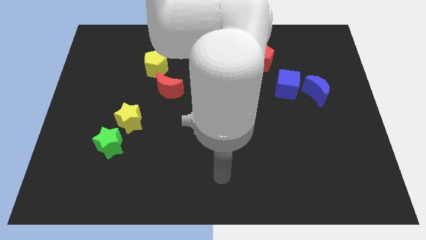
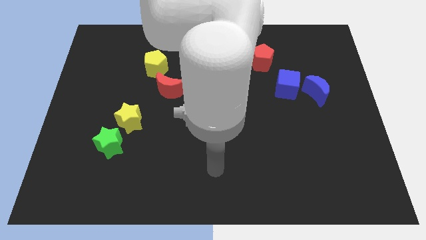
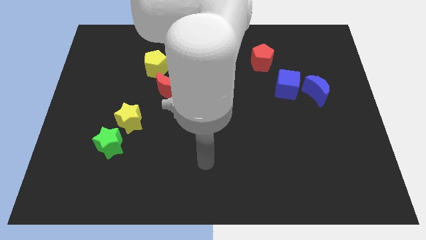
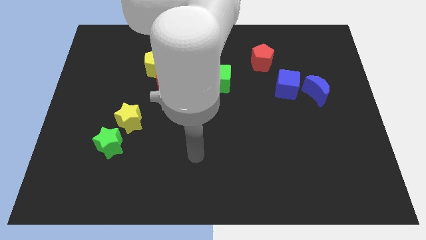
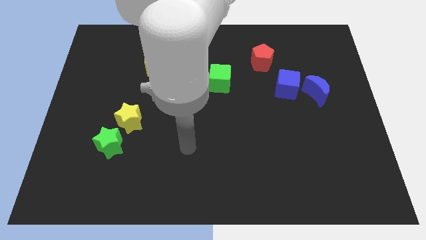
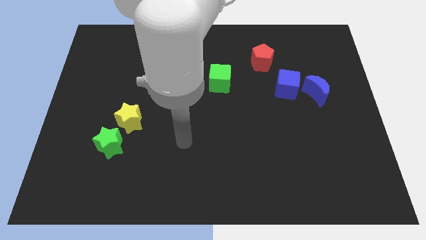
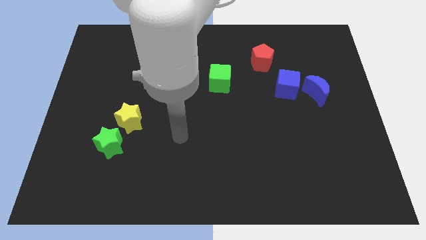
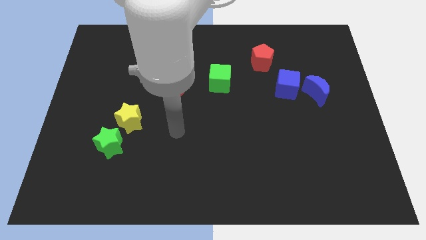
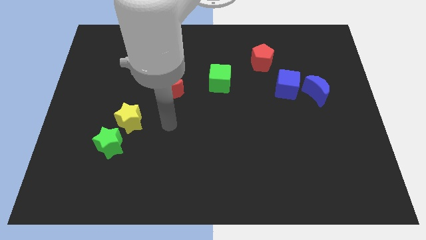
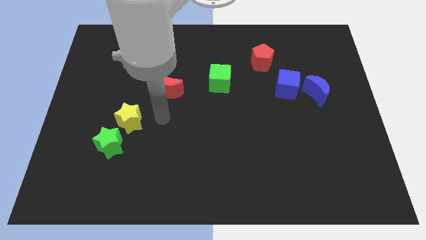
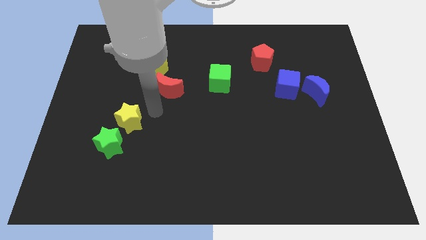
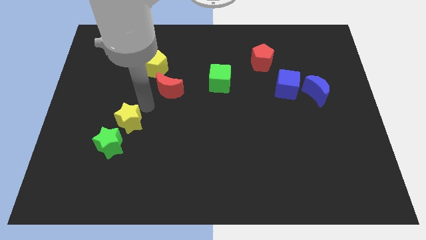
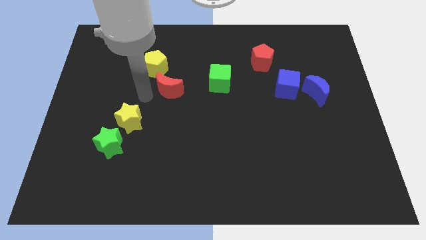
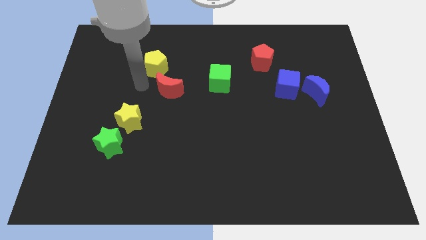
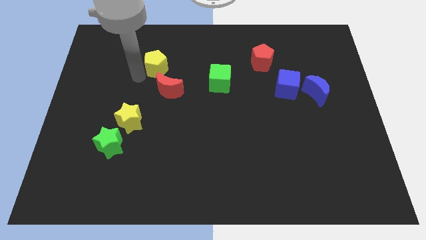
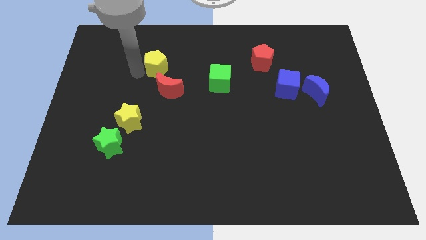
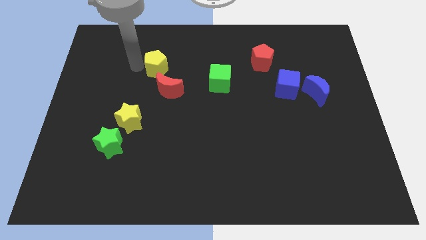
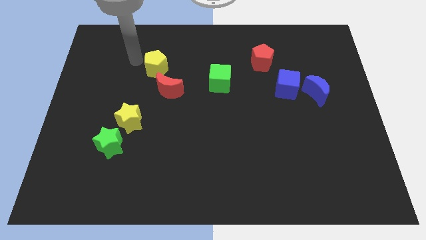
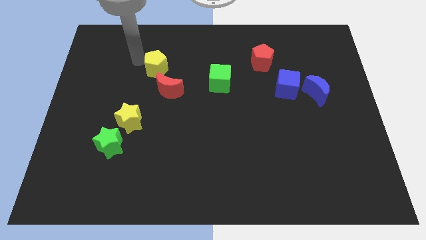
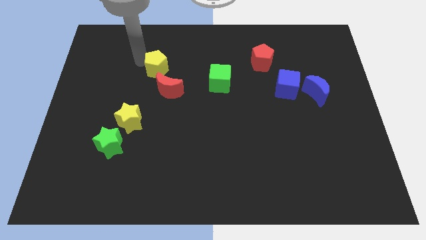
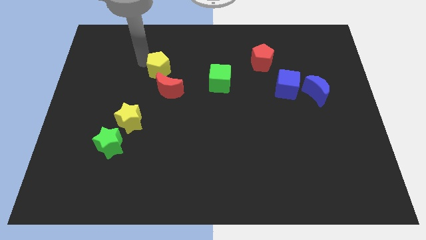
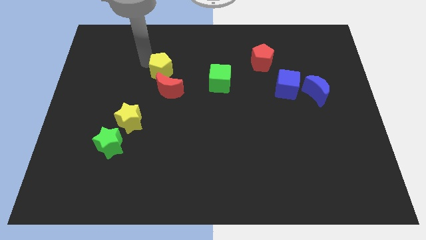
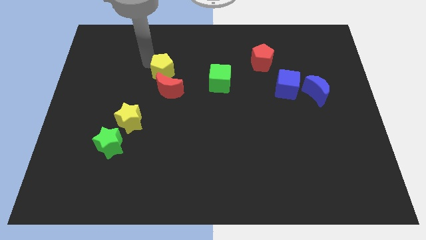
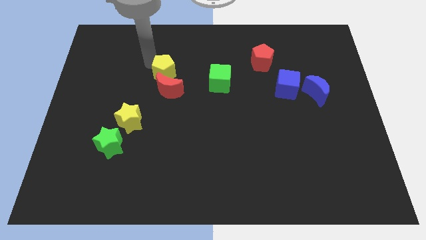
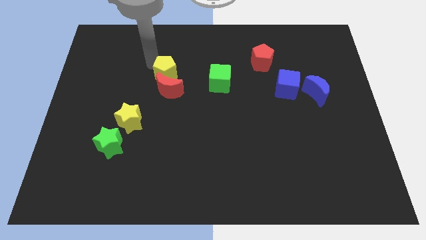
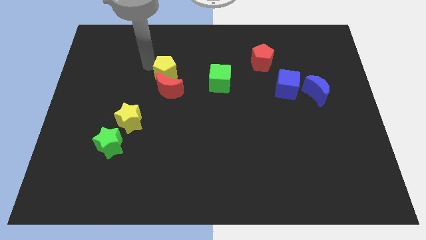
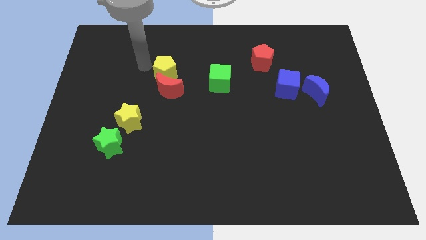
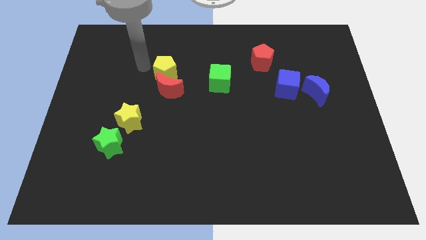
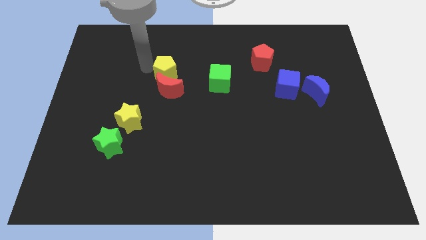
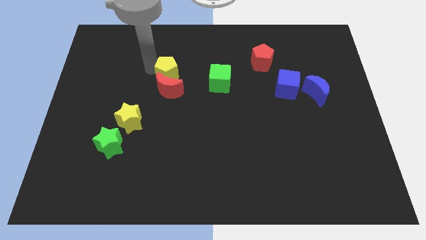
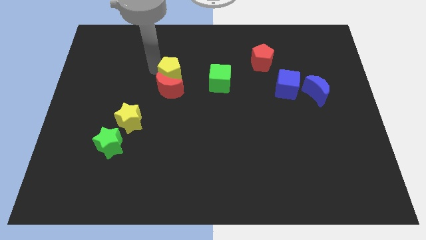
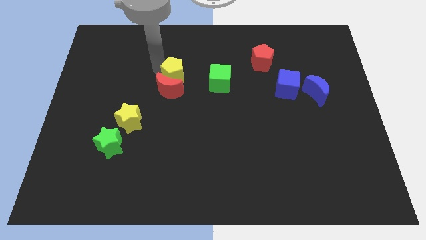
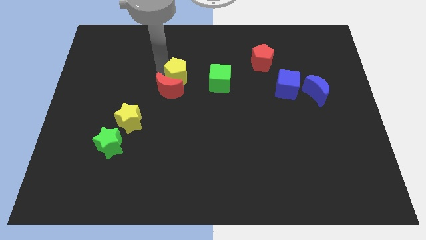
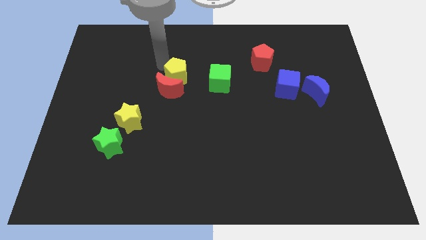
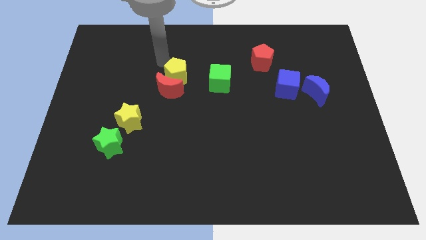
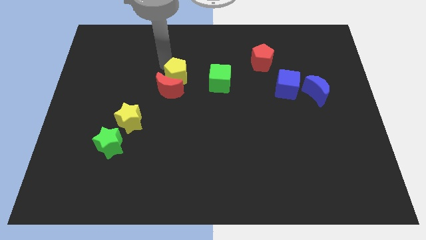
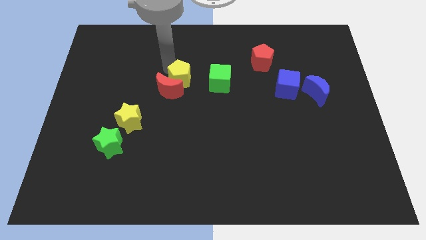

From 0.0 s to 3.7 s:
push the yellow pentagon somewhat down and right diagonally

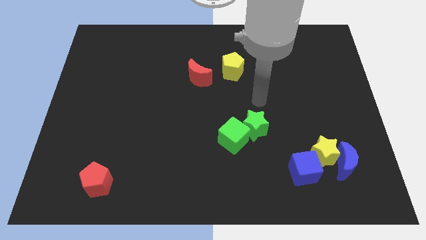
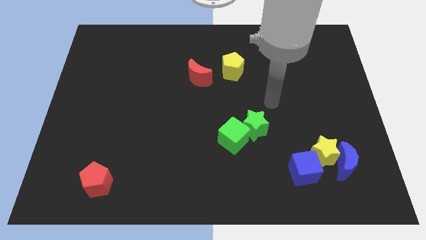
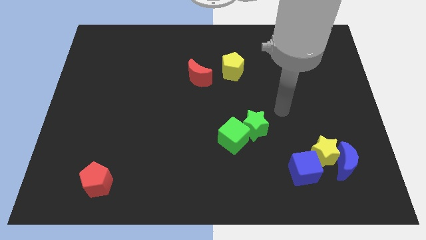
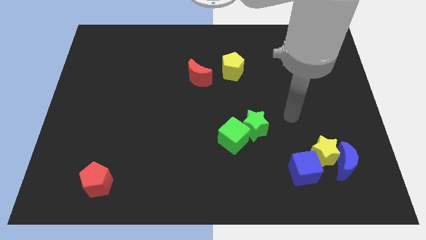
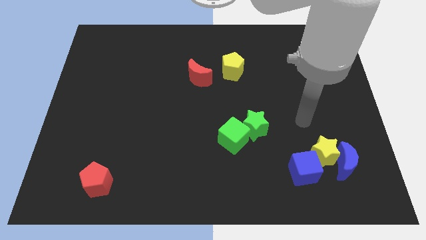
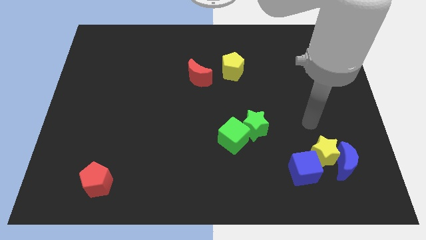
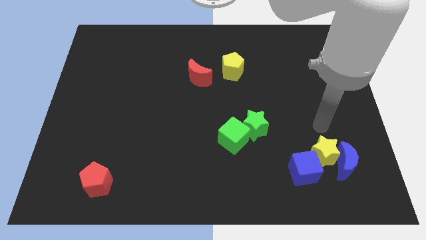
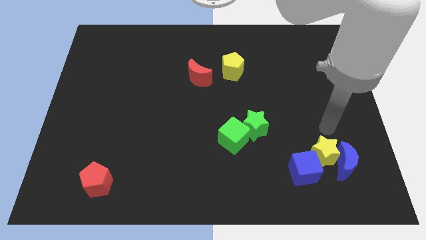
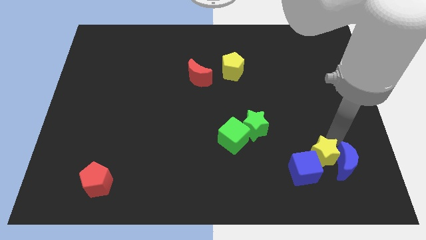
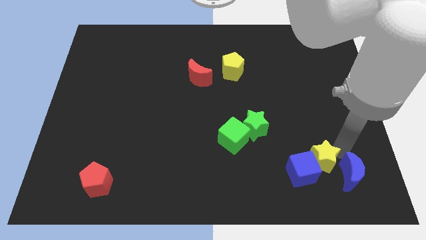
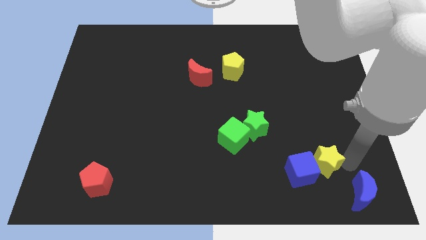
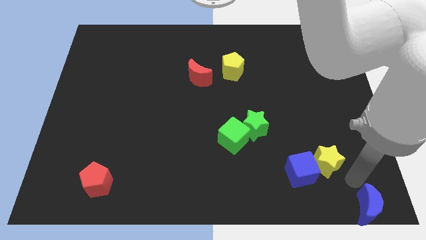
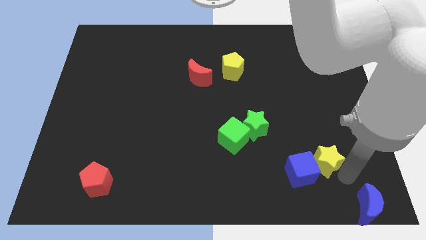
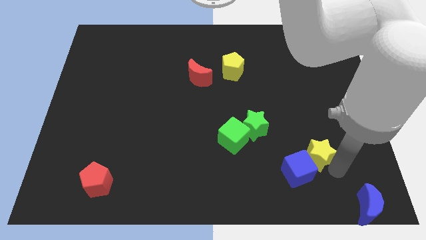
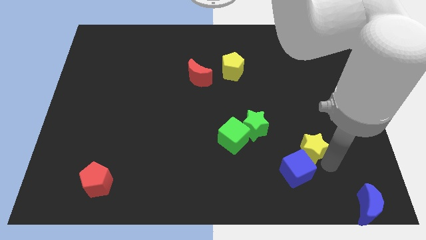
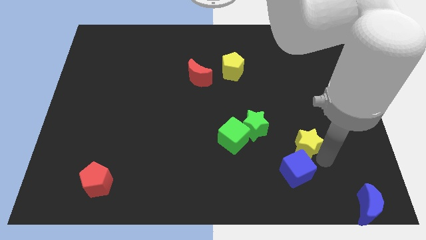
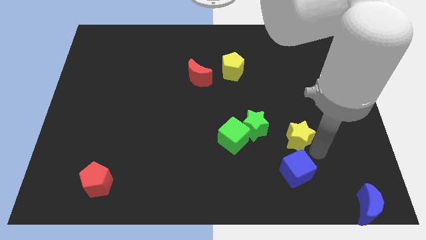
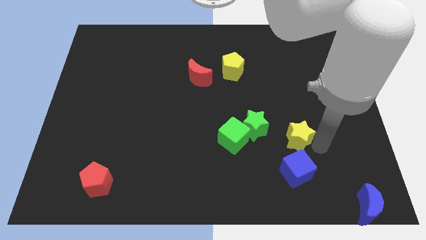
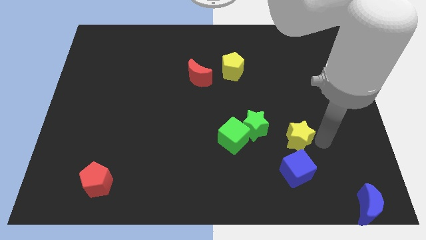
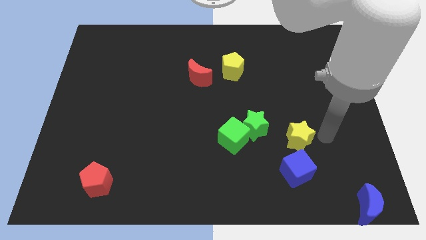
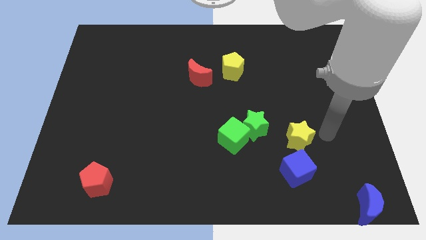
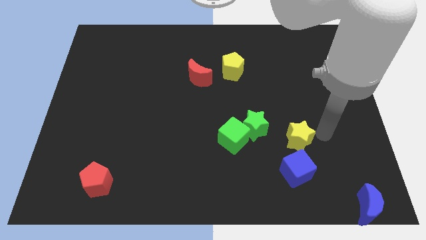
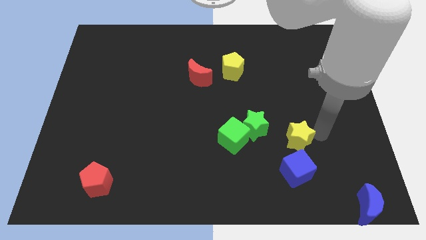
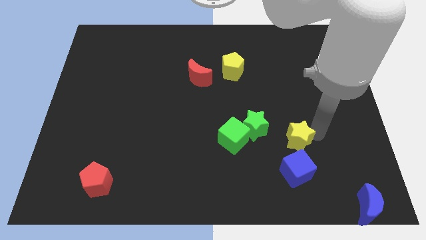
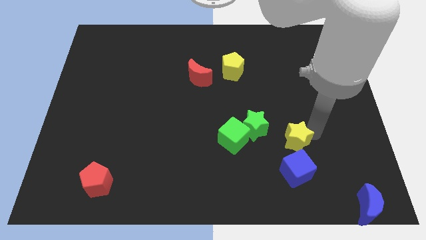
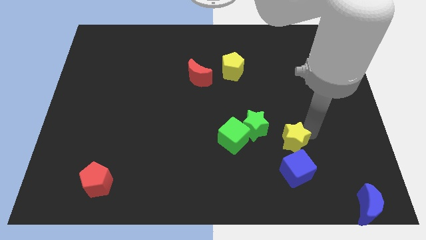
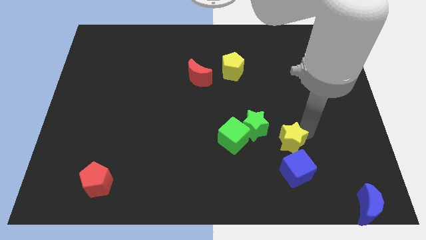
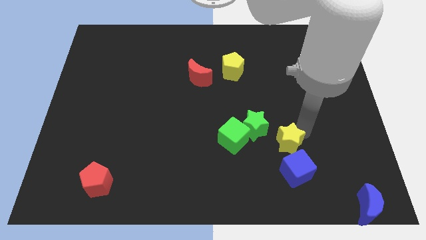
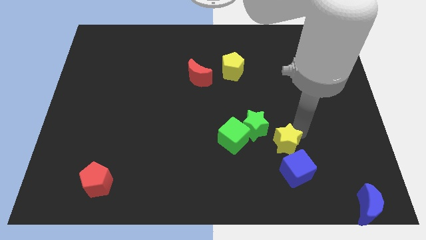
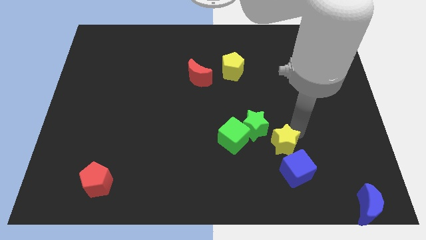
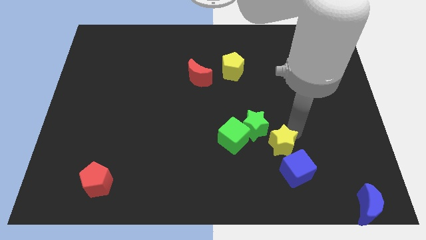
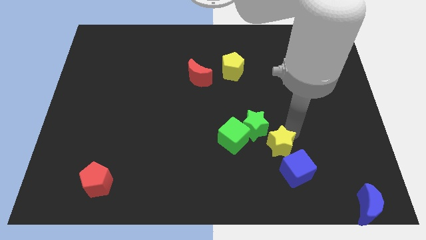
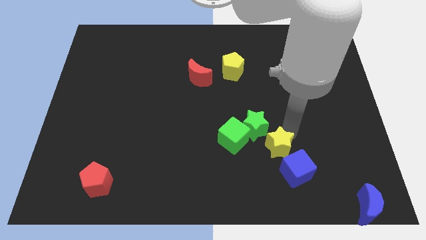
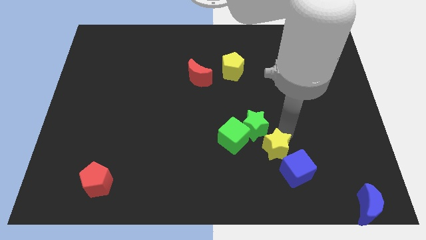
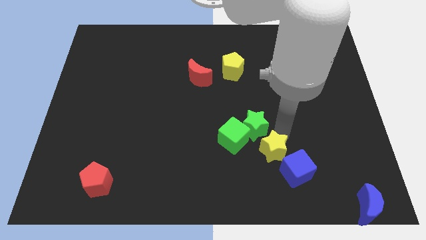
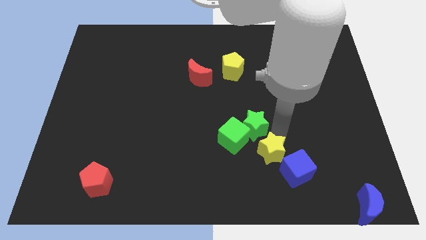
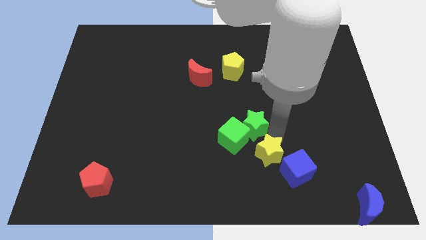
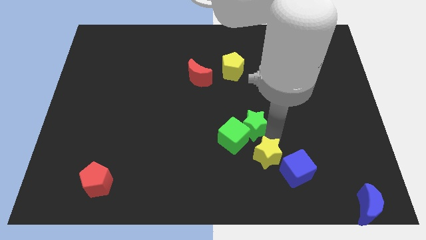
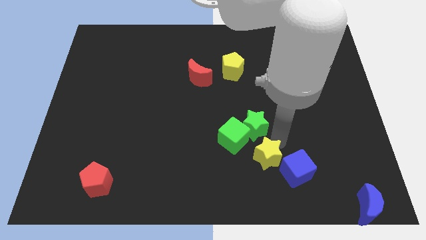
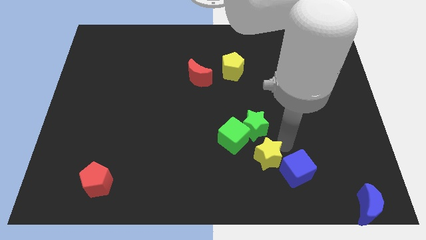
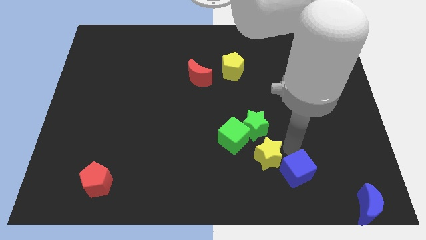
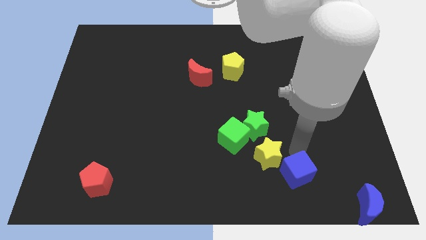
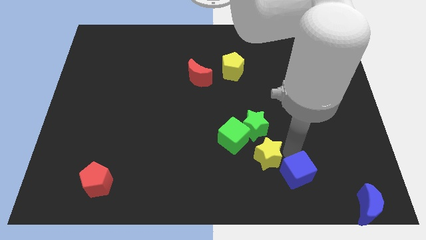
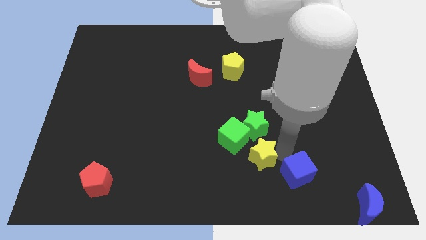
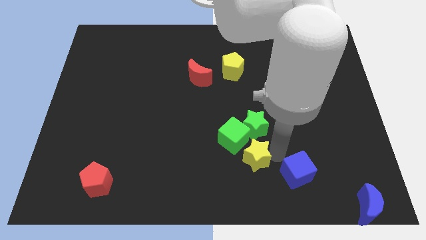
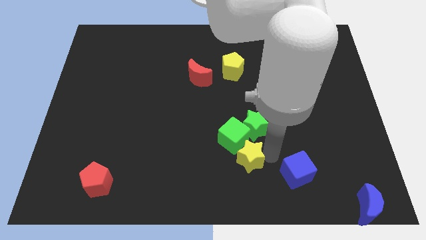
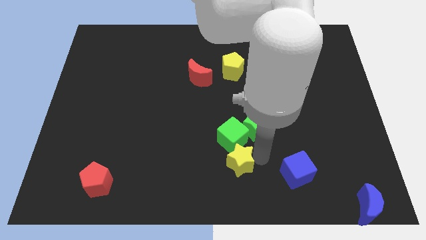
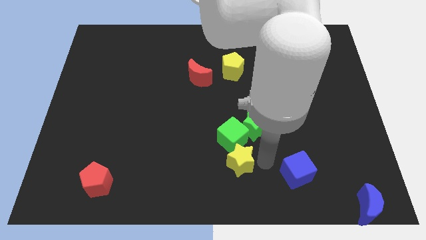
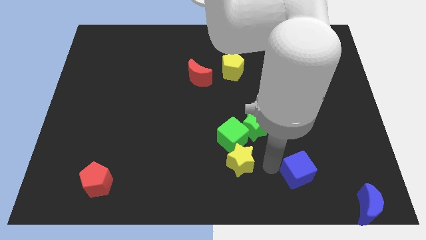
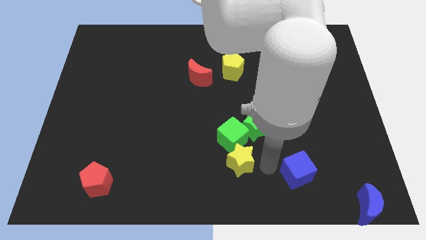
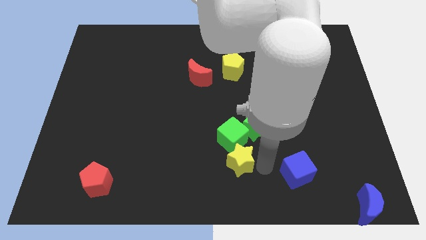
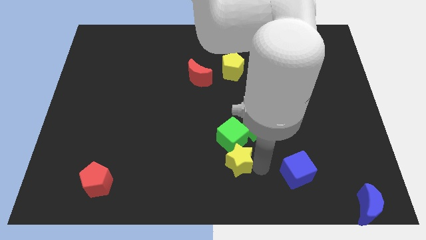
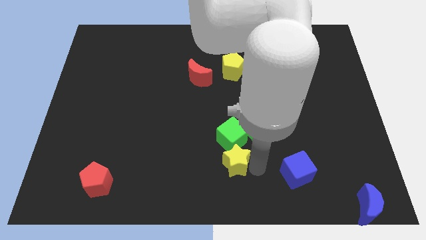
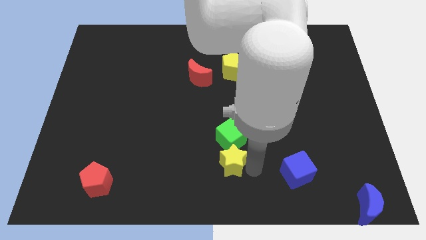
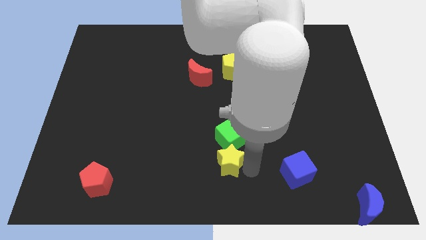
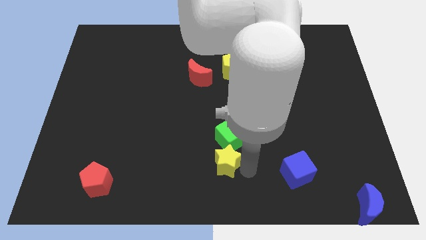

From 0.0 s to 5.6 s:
move the yellow star left
